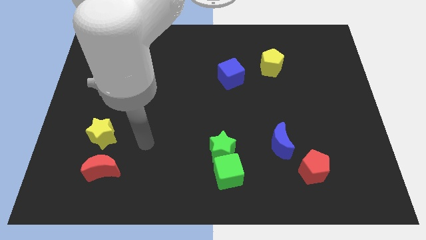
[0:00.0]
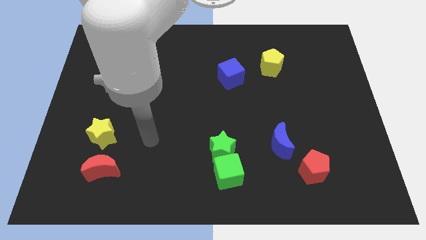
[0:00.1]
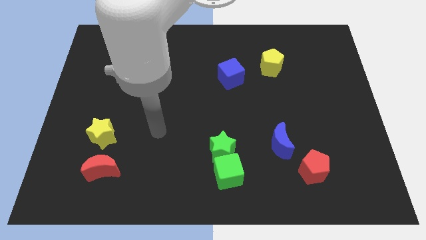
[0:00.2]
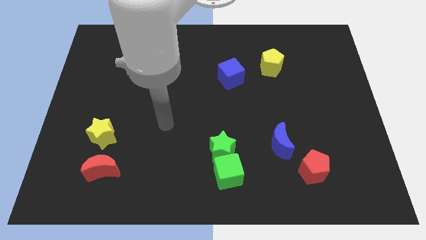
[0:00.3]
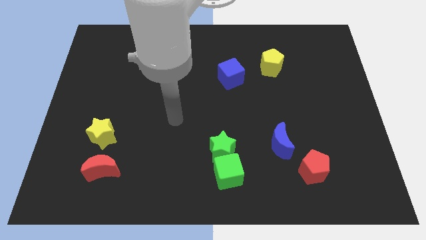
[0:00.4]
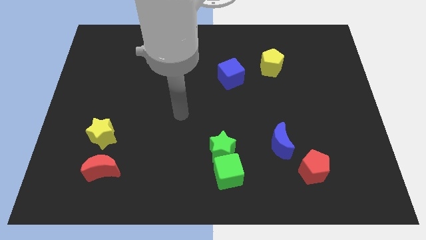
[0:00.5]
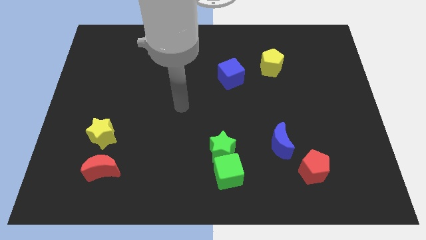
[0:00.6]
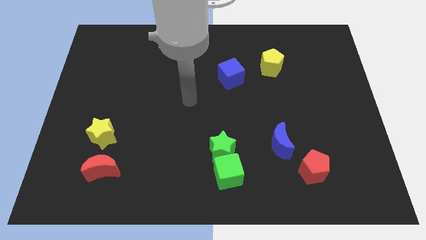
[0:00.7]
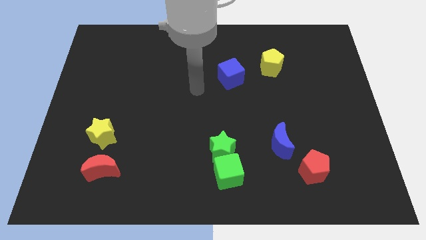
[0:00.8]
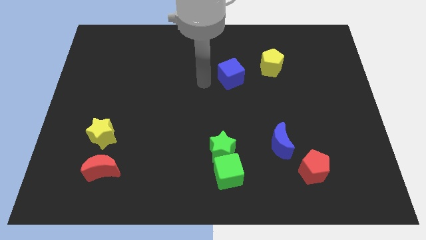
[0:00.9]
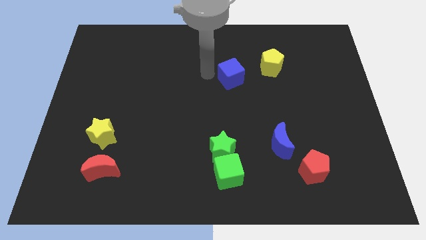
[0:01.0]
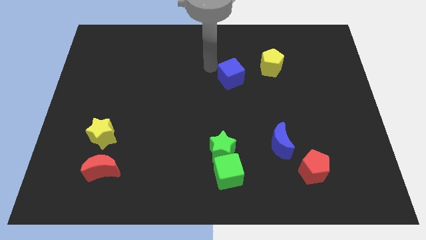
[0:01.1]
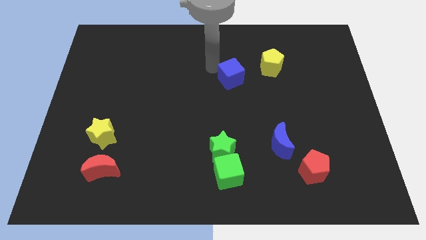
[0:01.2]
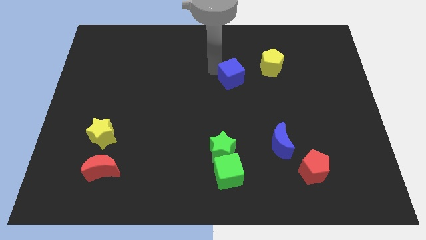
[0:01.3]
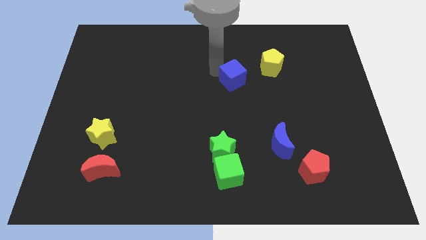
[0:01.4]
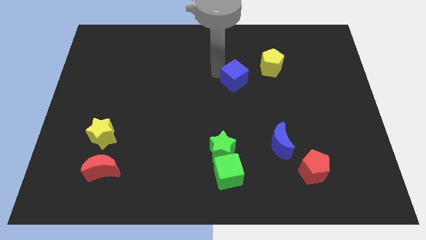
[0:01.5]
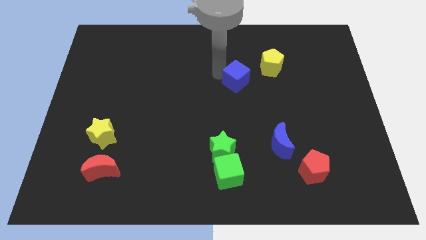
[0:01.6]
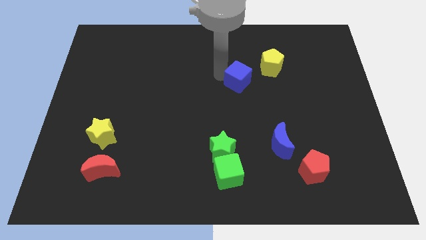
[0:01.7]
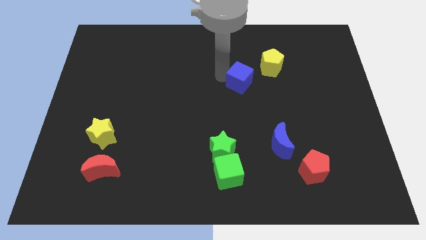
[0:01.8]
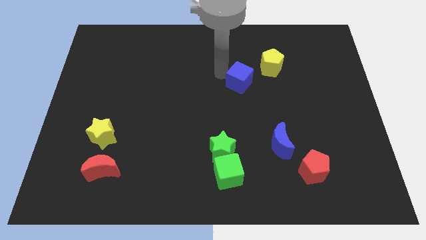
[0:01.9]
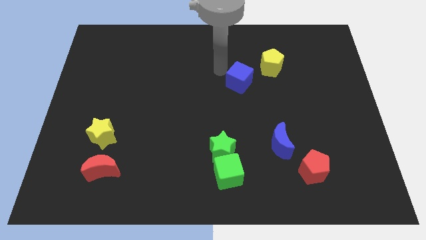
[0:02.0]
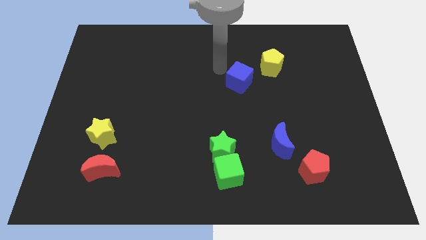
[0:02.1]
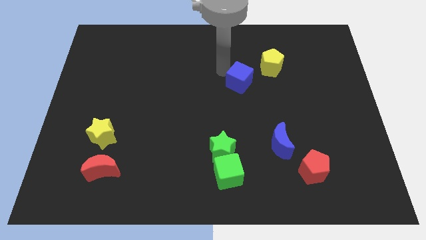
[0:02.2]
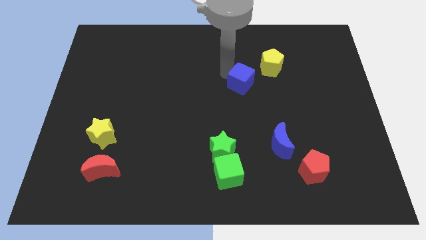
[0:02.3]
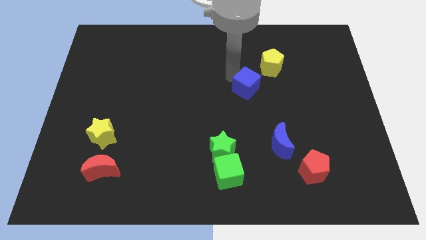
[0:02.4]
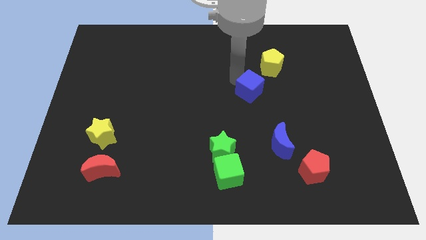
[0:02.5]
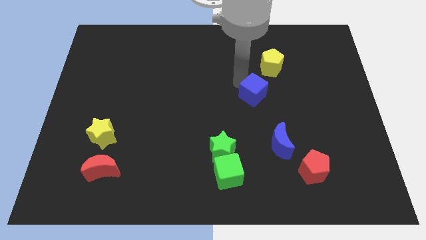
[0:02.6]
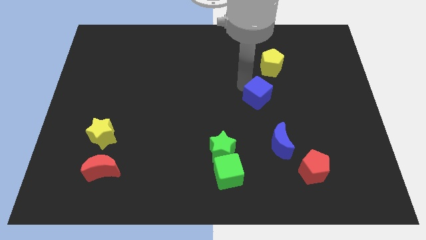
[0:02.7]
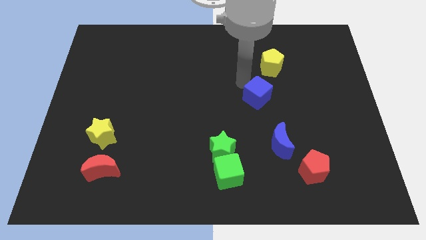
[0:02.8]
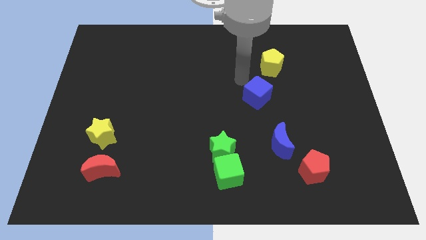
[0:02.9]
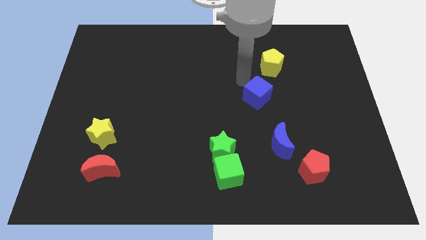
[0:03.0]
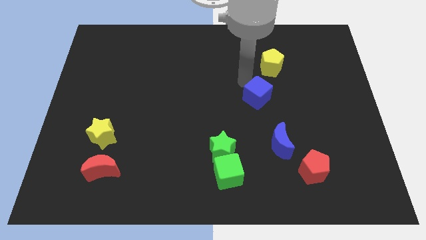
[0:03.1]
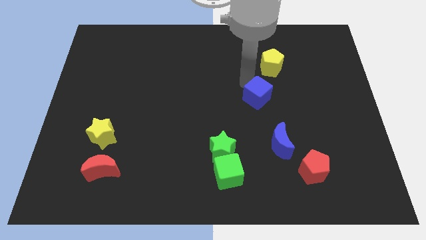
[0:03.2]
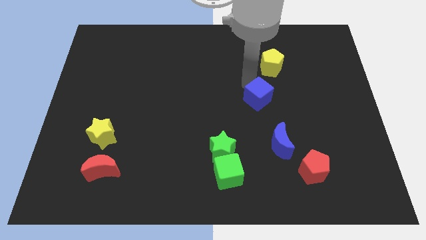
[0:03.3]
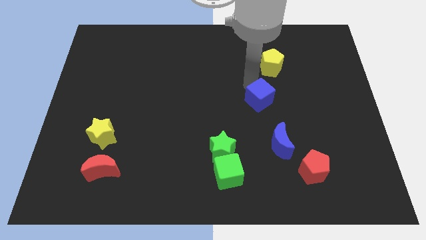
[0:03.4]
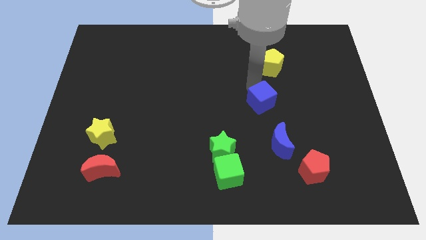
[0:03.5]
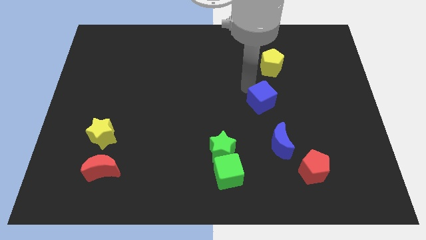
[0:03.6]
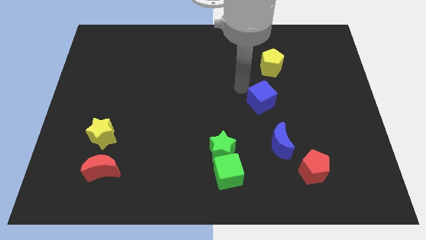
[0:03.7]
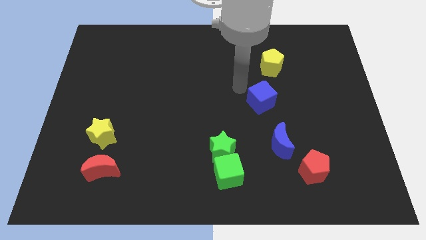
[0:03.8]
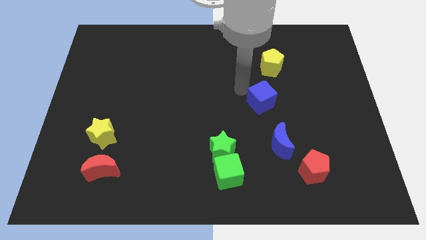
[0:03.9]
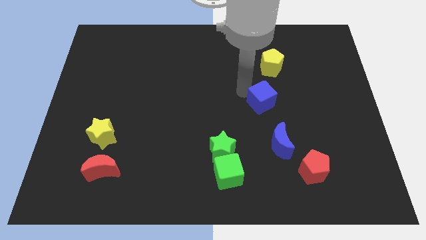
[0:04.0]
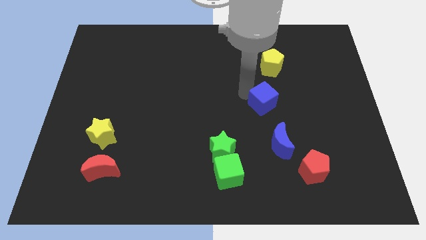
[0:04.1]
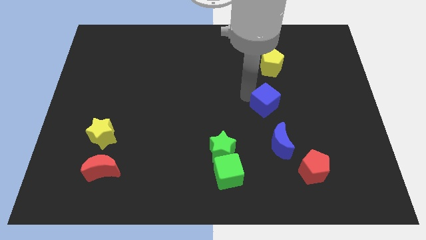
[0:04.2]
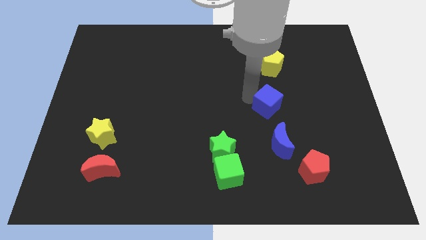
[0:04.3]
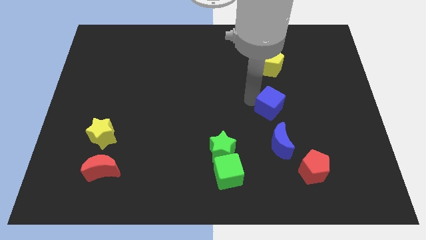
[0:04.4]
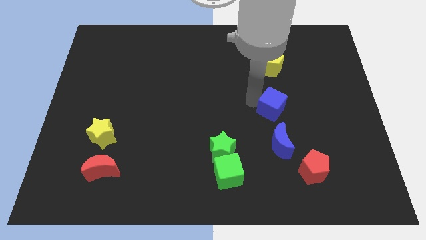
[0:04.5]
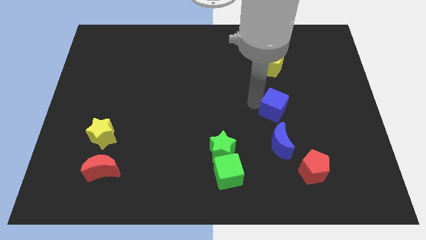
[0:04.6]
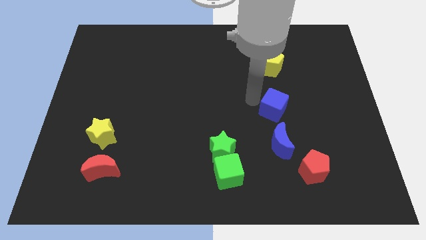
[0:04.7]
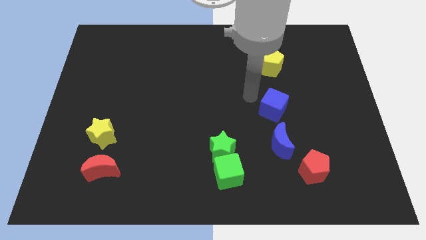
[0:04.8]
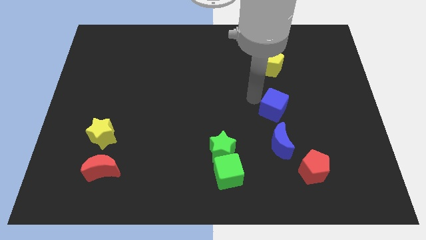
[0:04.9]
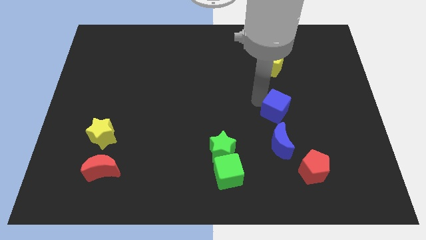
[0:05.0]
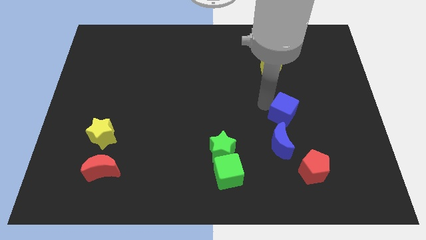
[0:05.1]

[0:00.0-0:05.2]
move the blue cube diagonally up and to the right of the blue moon

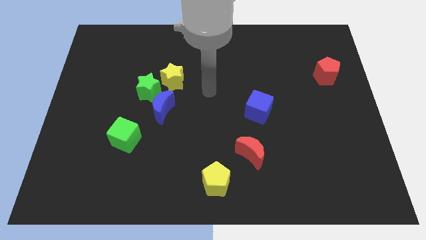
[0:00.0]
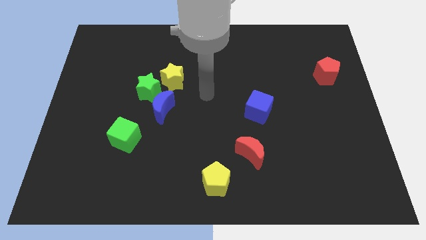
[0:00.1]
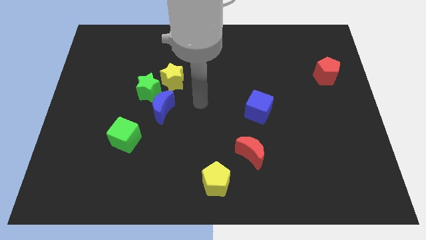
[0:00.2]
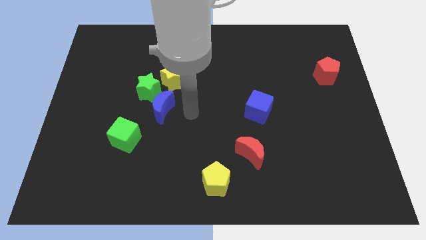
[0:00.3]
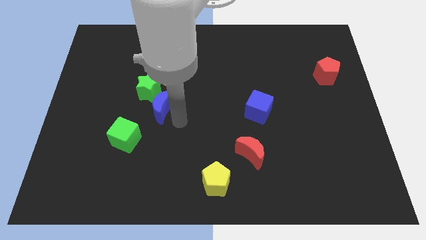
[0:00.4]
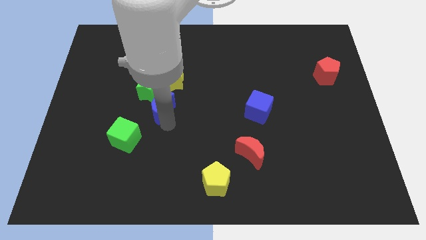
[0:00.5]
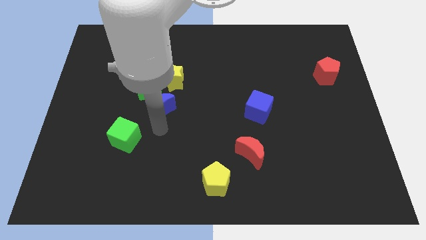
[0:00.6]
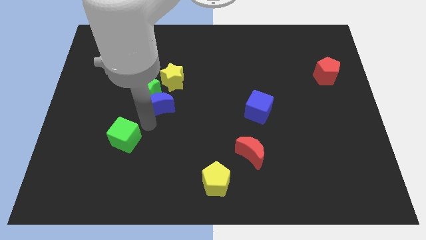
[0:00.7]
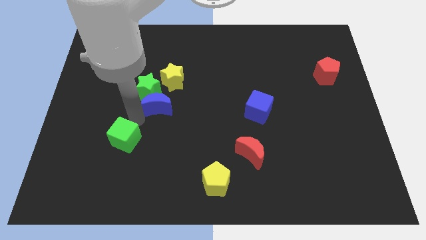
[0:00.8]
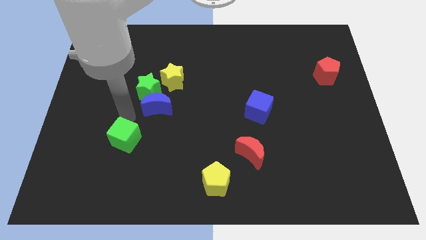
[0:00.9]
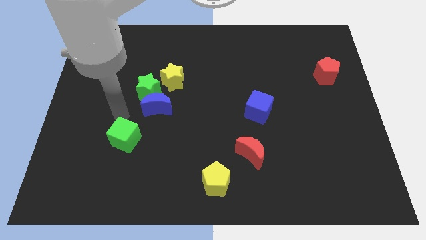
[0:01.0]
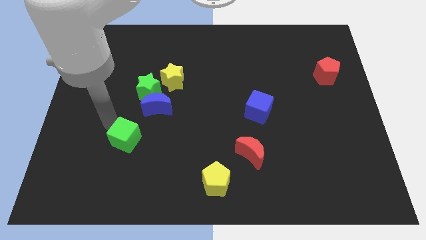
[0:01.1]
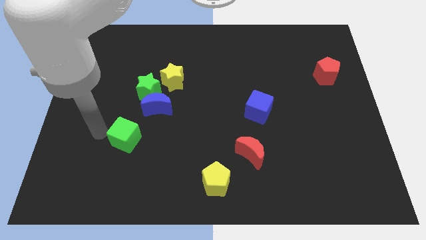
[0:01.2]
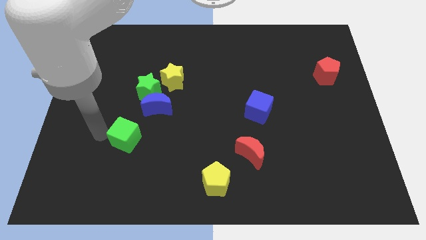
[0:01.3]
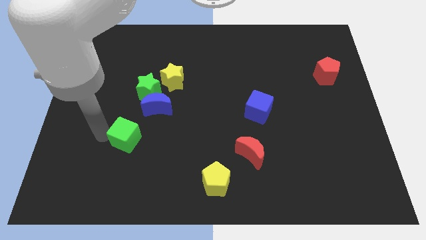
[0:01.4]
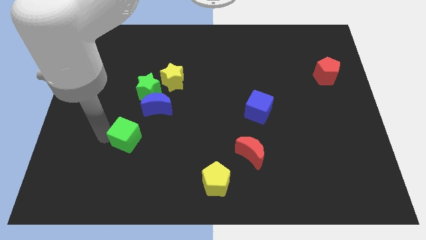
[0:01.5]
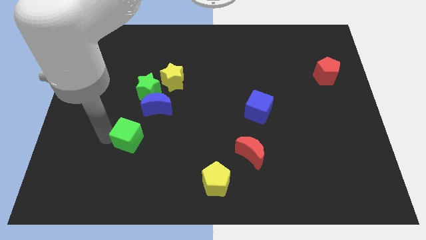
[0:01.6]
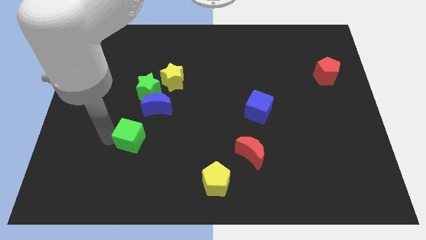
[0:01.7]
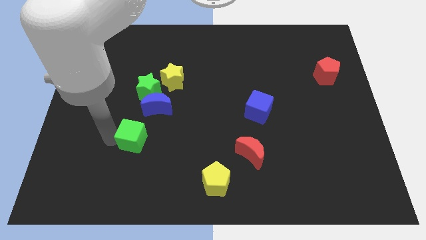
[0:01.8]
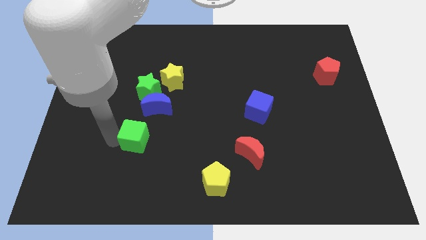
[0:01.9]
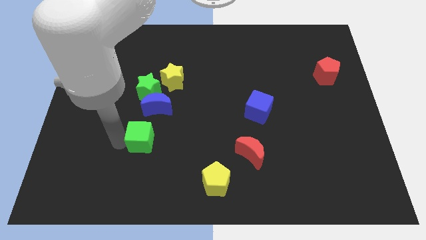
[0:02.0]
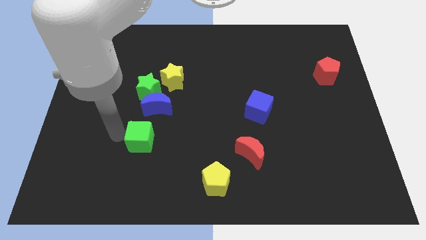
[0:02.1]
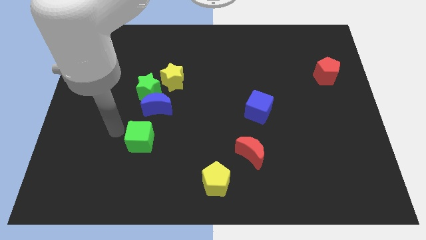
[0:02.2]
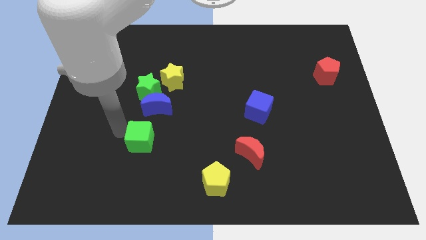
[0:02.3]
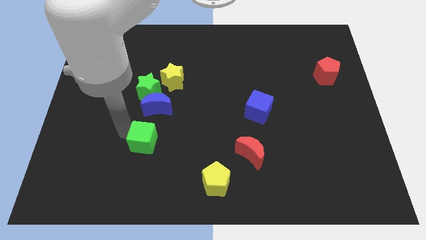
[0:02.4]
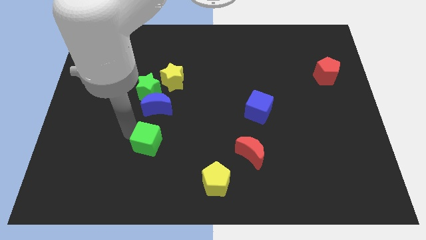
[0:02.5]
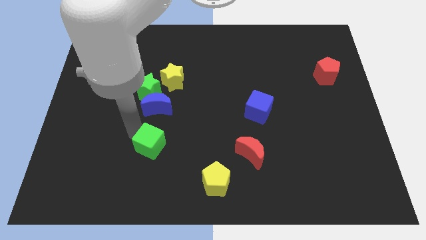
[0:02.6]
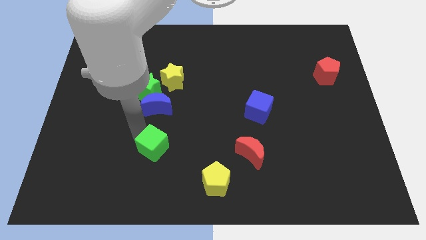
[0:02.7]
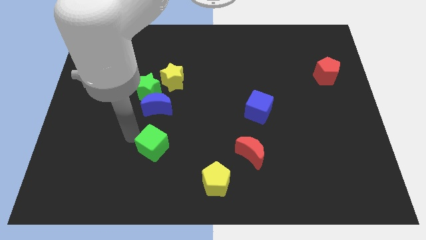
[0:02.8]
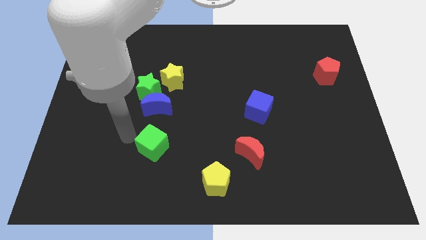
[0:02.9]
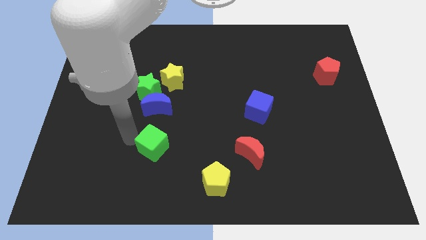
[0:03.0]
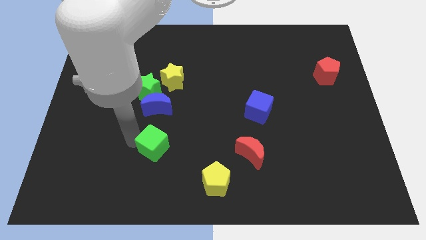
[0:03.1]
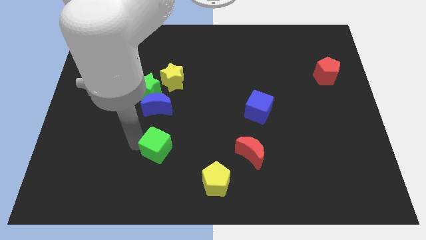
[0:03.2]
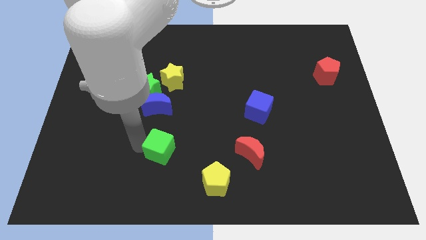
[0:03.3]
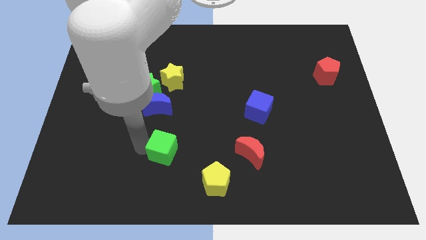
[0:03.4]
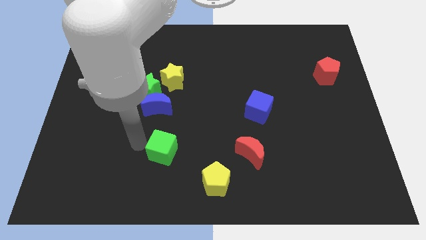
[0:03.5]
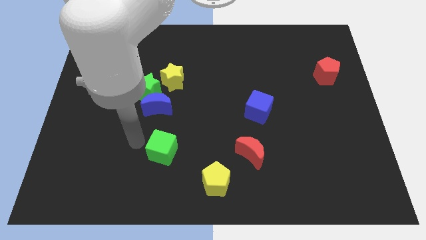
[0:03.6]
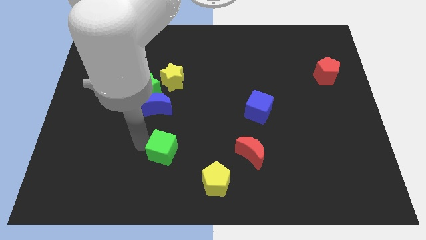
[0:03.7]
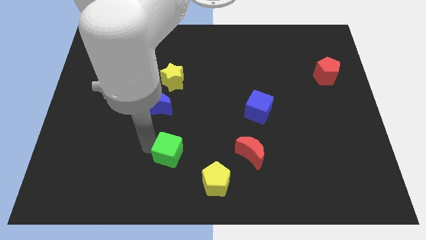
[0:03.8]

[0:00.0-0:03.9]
put the green cube to the top left of the yellow pentagon
